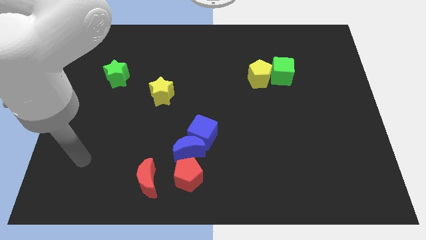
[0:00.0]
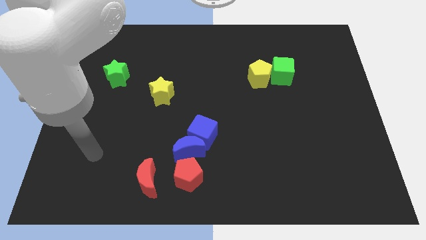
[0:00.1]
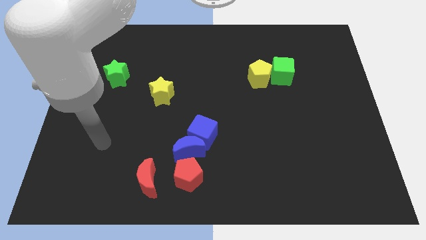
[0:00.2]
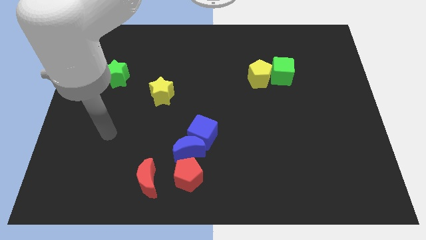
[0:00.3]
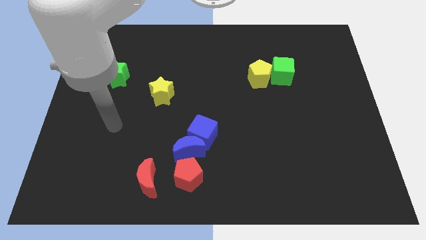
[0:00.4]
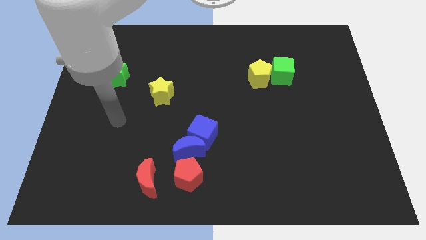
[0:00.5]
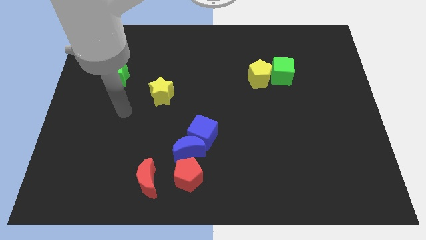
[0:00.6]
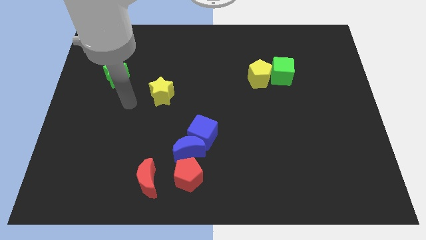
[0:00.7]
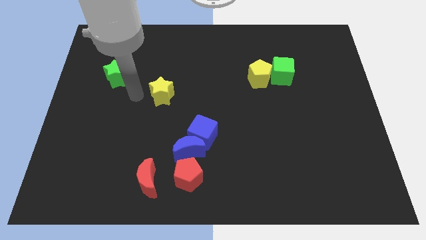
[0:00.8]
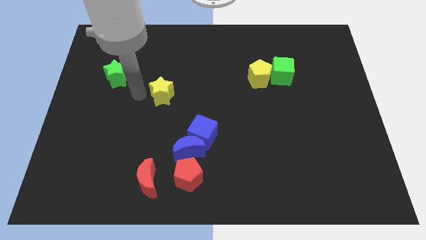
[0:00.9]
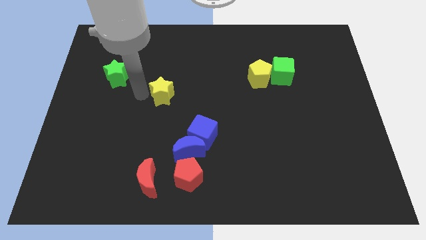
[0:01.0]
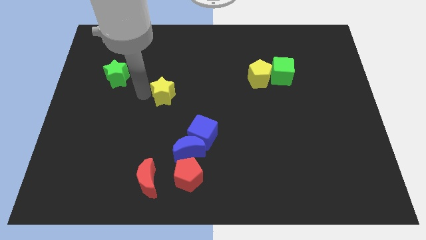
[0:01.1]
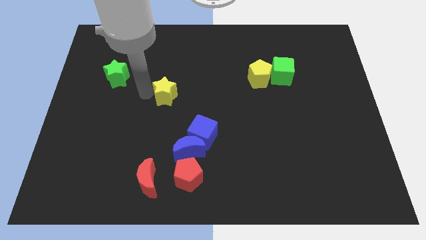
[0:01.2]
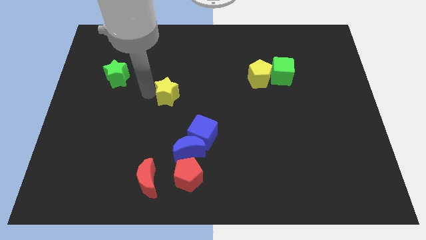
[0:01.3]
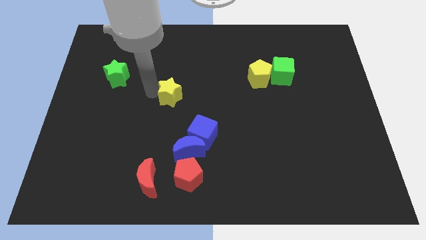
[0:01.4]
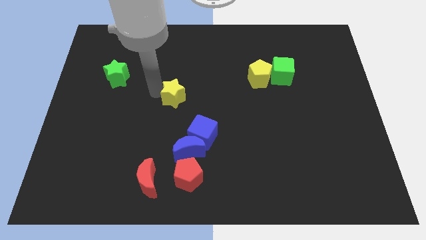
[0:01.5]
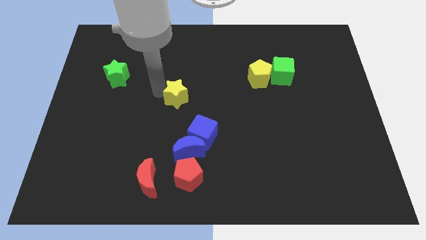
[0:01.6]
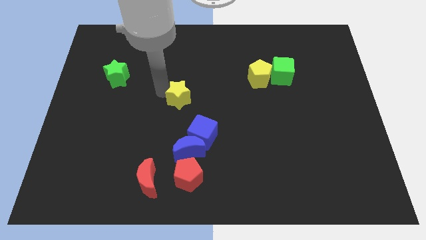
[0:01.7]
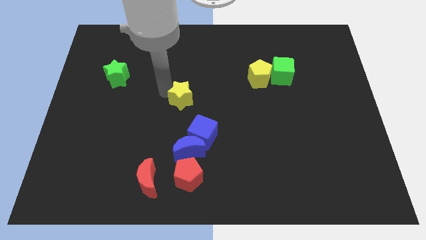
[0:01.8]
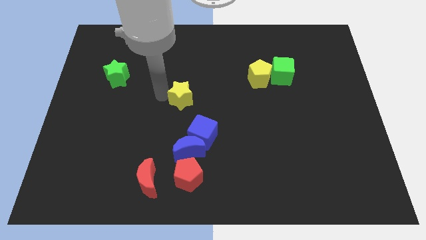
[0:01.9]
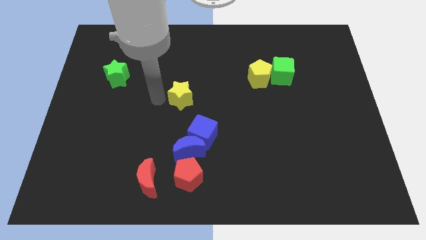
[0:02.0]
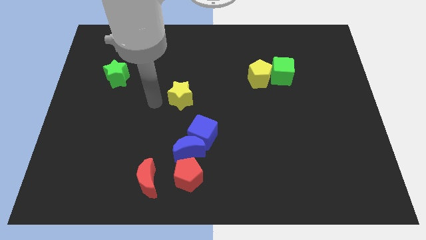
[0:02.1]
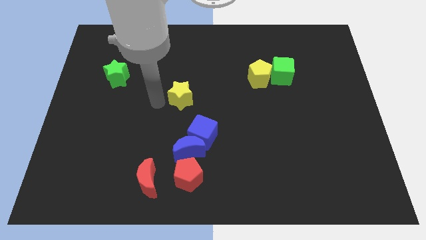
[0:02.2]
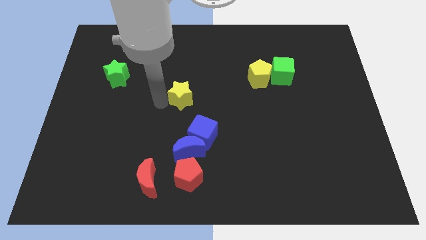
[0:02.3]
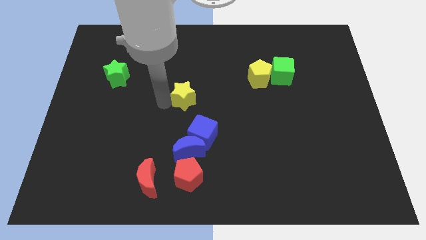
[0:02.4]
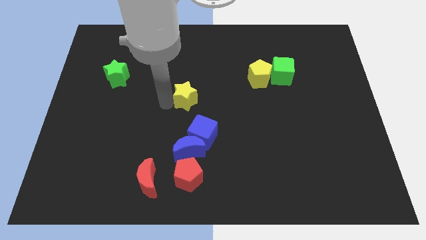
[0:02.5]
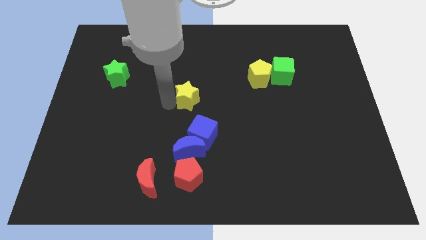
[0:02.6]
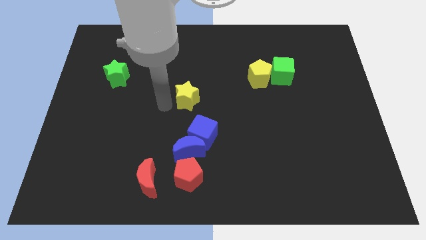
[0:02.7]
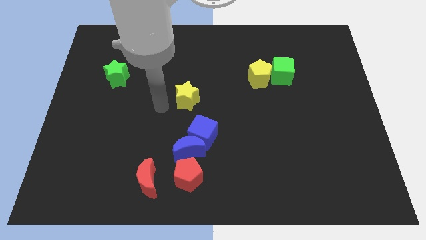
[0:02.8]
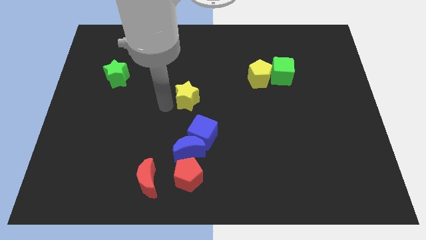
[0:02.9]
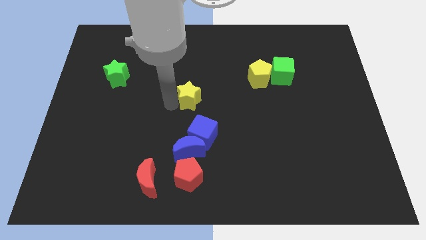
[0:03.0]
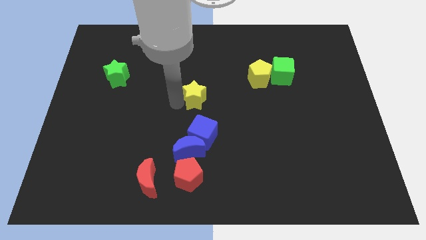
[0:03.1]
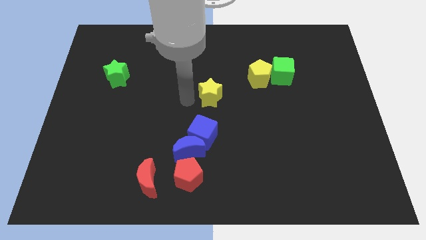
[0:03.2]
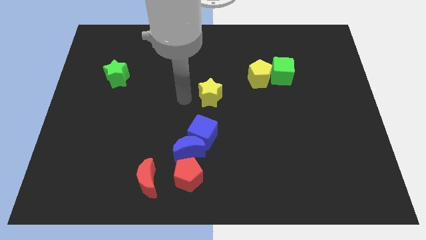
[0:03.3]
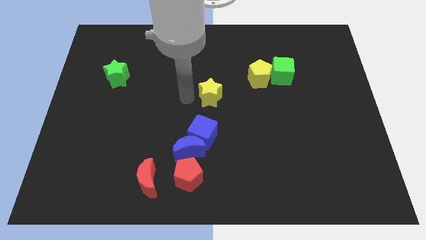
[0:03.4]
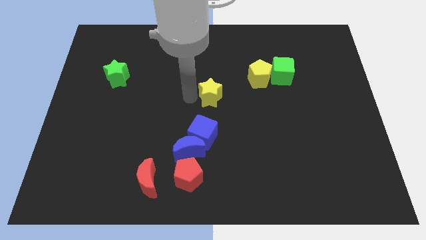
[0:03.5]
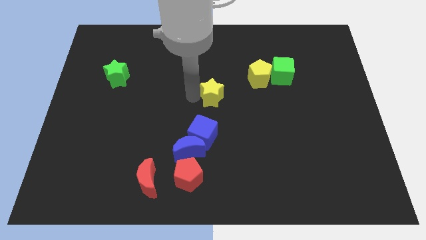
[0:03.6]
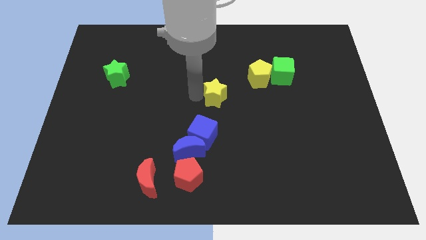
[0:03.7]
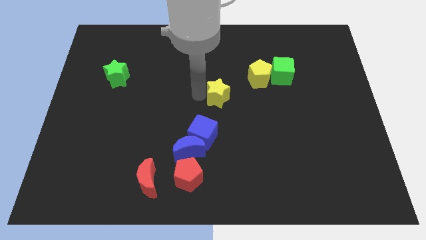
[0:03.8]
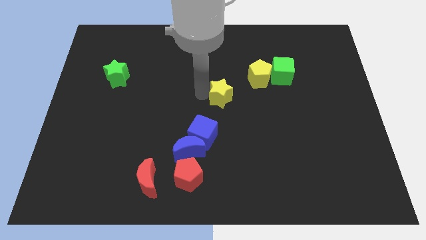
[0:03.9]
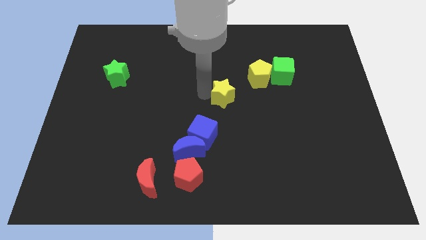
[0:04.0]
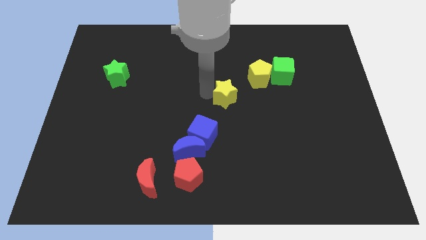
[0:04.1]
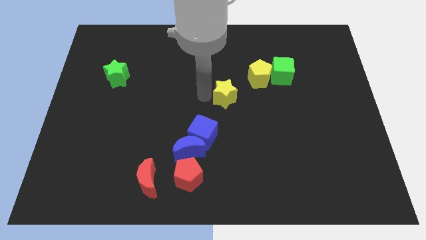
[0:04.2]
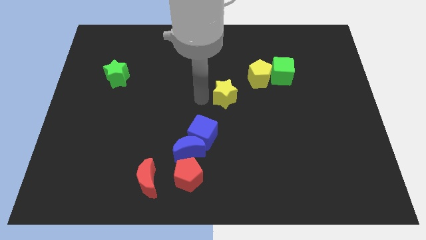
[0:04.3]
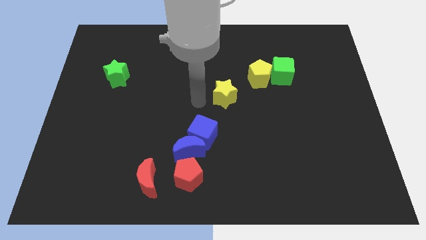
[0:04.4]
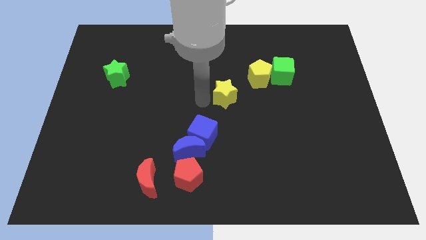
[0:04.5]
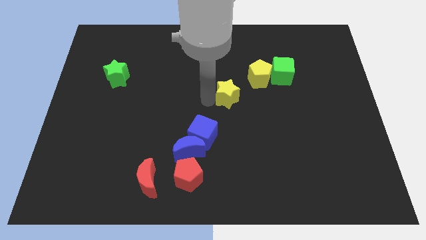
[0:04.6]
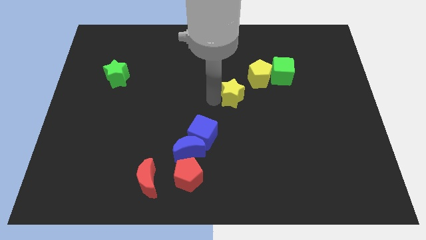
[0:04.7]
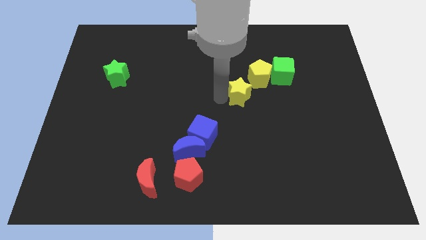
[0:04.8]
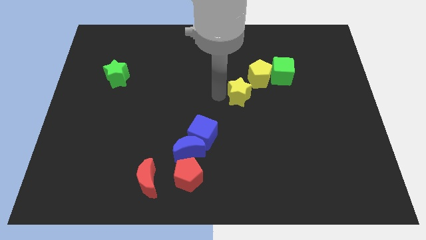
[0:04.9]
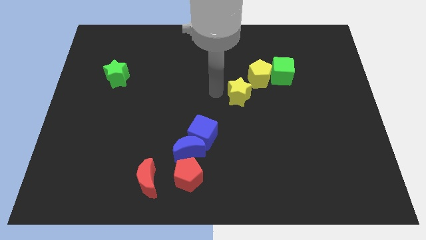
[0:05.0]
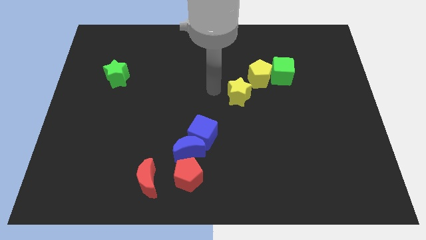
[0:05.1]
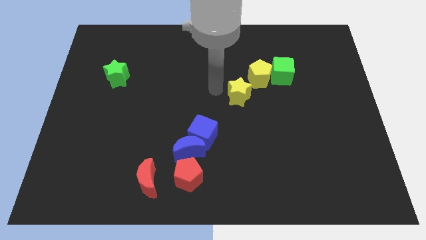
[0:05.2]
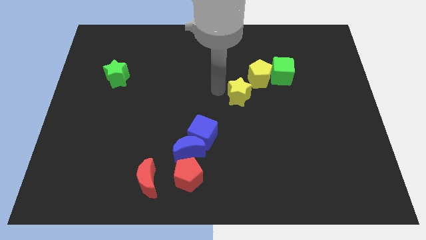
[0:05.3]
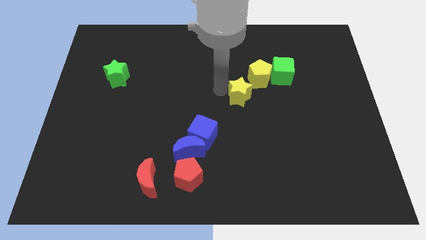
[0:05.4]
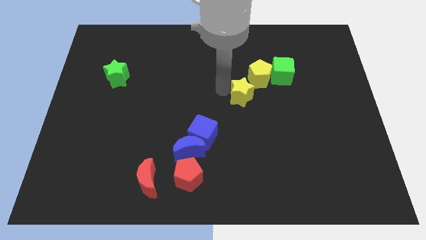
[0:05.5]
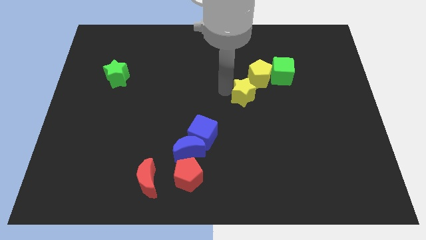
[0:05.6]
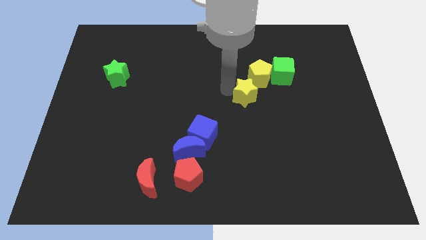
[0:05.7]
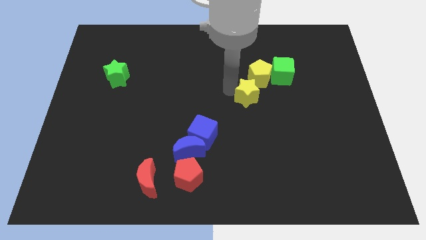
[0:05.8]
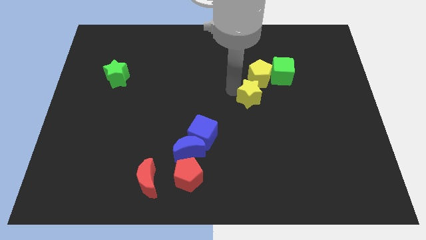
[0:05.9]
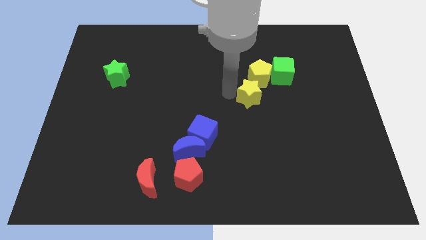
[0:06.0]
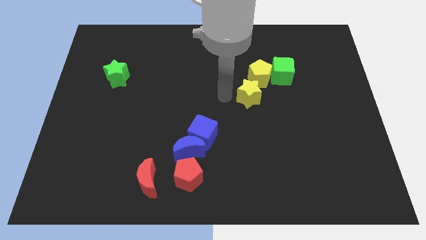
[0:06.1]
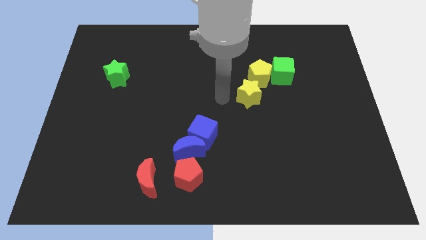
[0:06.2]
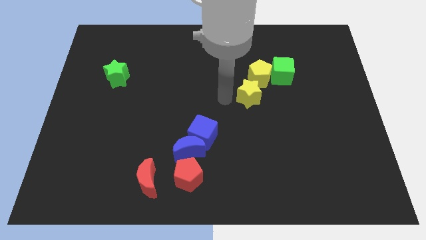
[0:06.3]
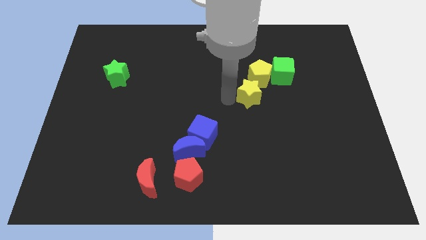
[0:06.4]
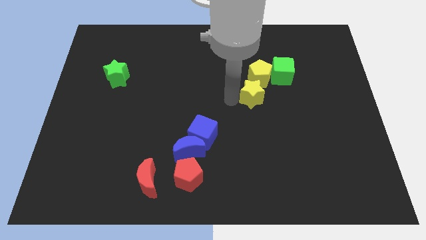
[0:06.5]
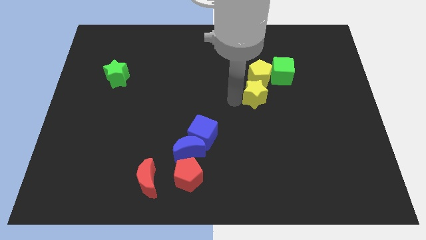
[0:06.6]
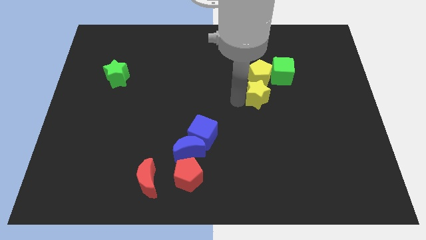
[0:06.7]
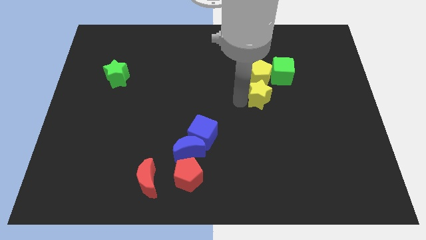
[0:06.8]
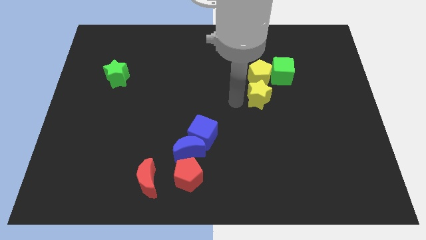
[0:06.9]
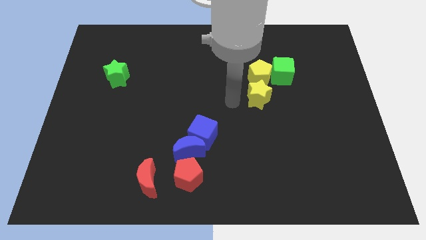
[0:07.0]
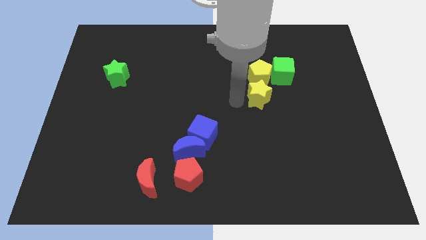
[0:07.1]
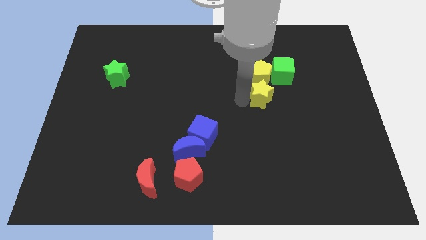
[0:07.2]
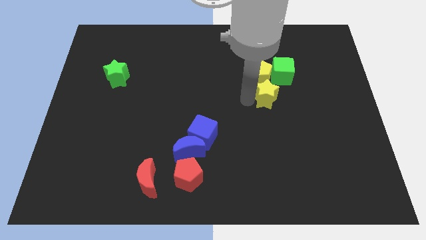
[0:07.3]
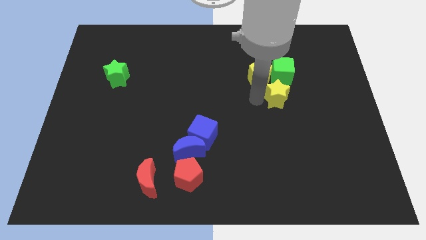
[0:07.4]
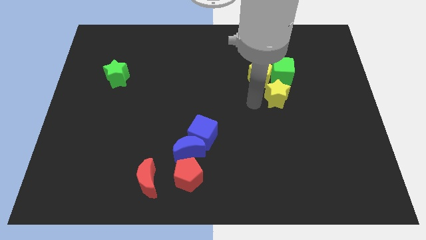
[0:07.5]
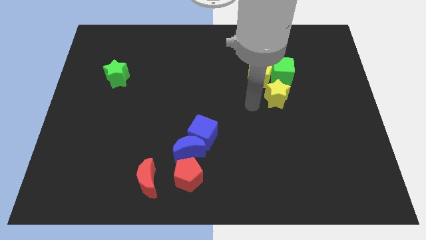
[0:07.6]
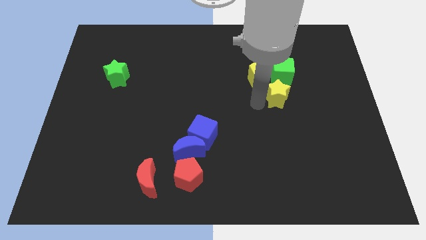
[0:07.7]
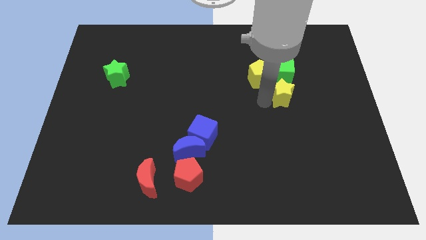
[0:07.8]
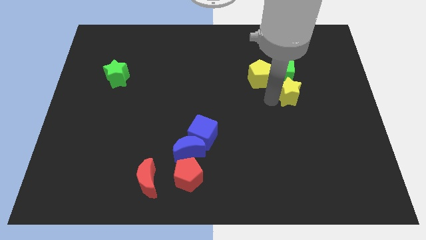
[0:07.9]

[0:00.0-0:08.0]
move the yellow star to the bottom right of the green cube
